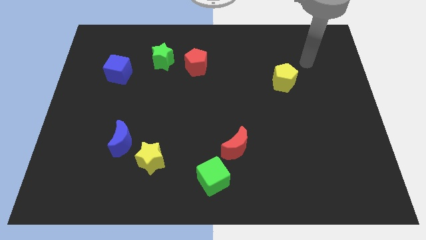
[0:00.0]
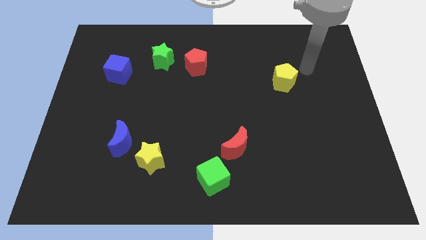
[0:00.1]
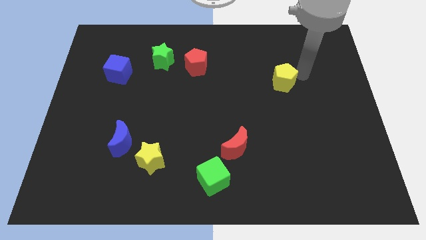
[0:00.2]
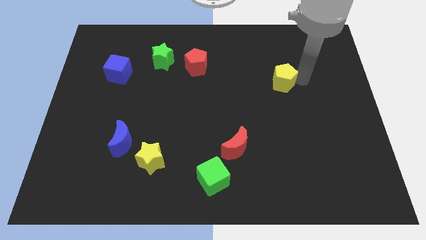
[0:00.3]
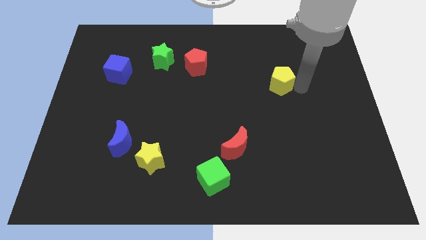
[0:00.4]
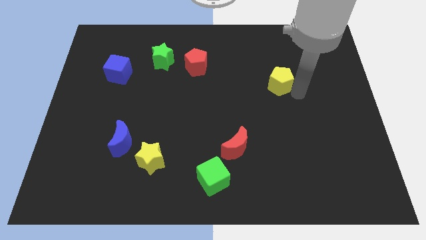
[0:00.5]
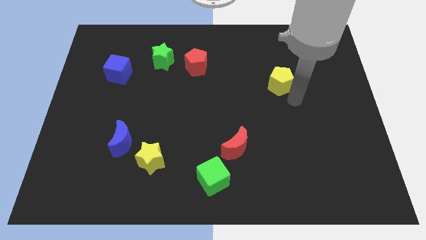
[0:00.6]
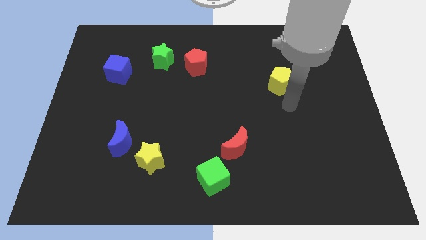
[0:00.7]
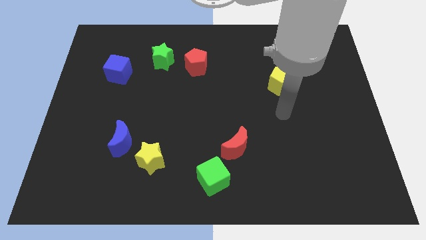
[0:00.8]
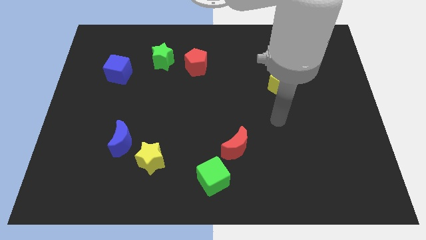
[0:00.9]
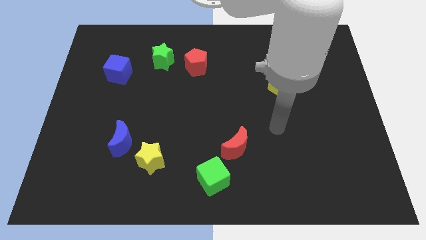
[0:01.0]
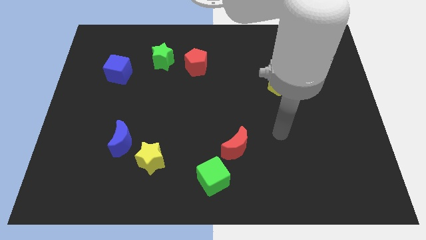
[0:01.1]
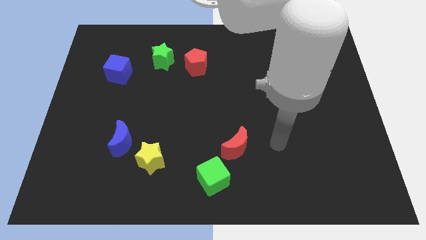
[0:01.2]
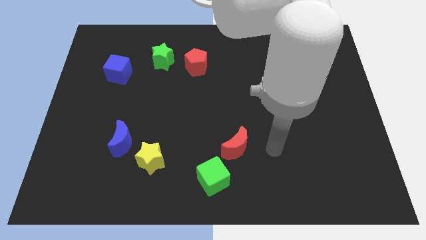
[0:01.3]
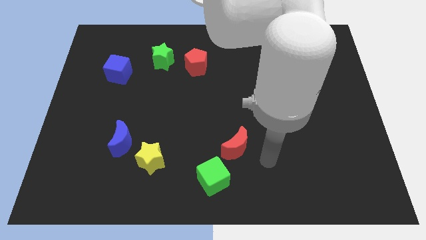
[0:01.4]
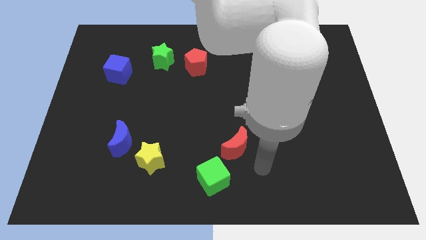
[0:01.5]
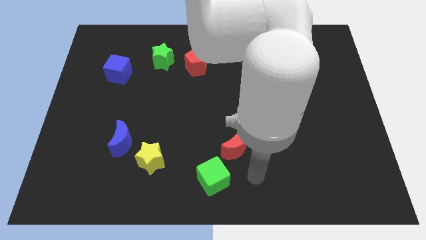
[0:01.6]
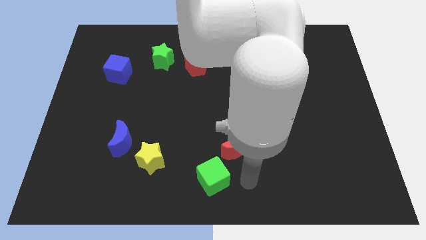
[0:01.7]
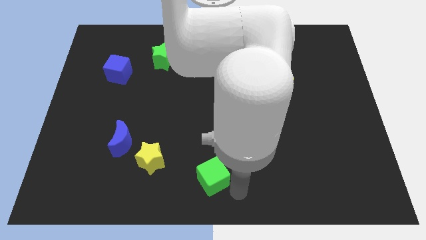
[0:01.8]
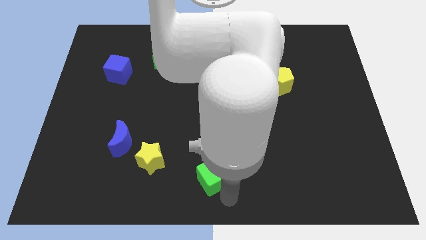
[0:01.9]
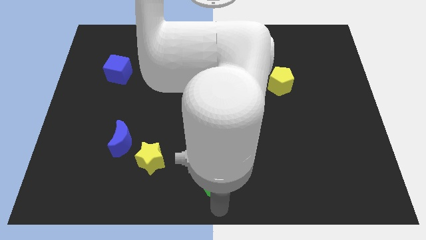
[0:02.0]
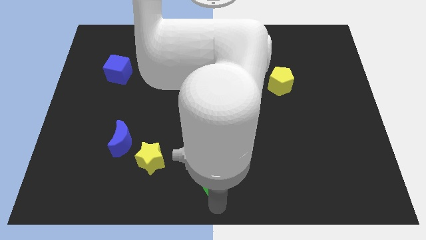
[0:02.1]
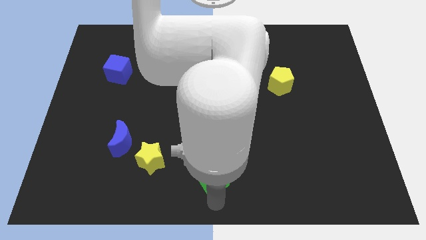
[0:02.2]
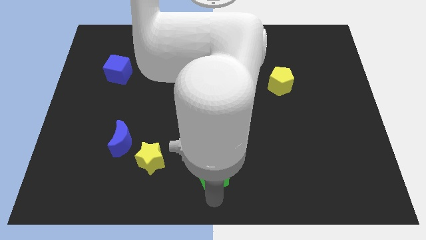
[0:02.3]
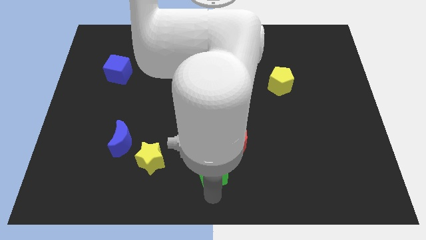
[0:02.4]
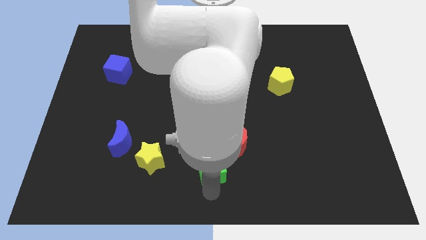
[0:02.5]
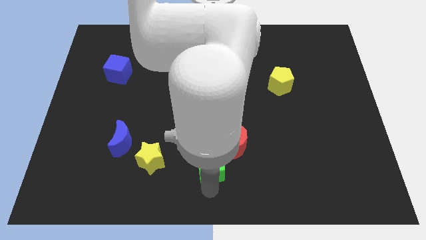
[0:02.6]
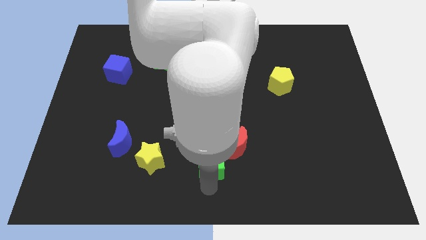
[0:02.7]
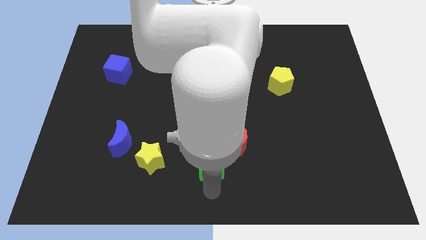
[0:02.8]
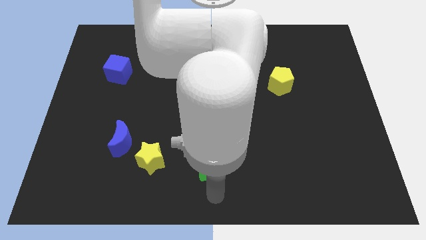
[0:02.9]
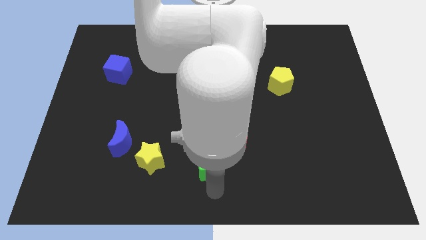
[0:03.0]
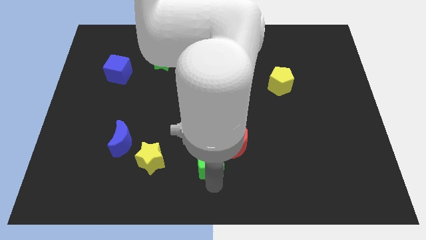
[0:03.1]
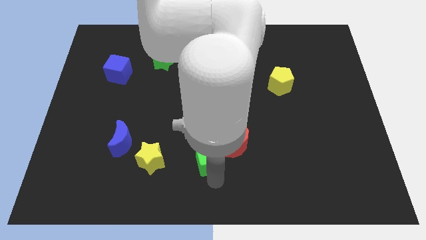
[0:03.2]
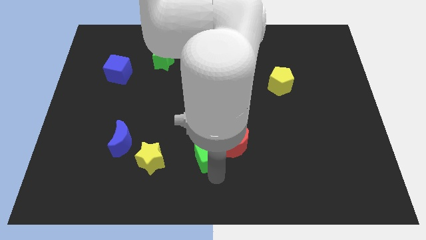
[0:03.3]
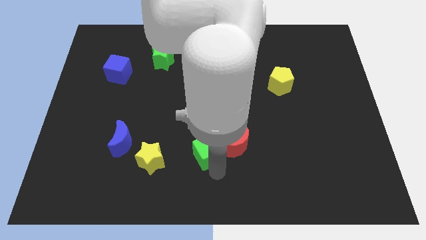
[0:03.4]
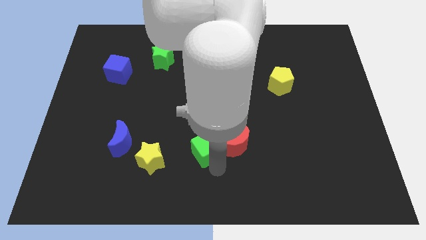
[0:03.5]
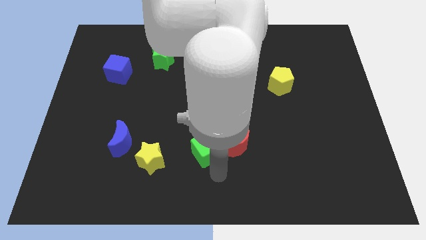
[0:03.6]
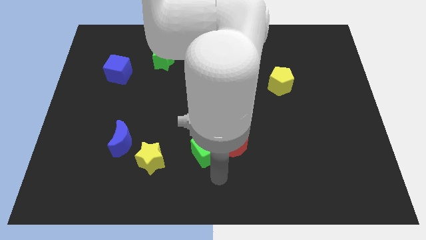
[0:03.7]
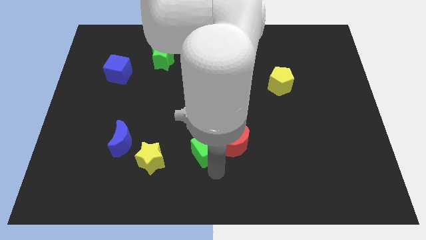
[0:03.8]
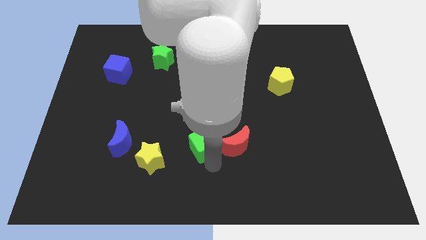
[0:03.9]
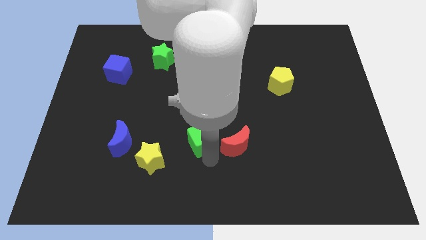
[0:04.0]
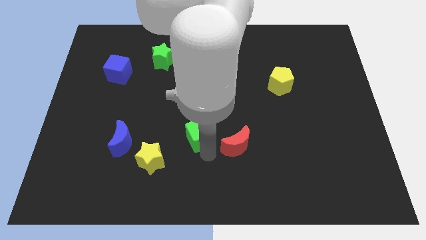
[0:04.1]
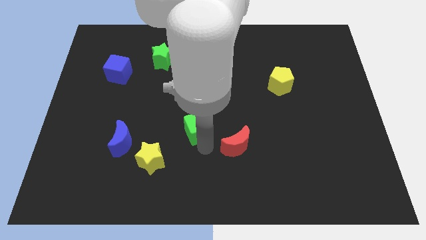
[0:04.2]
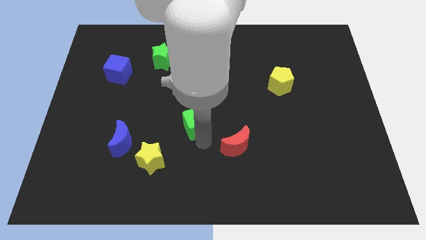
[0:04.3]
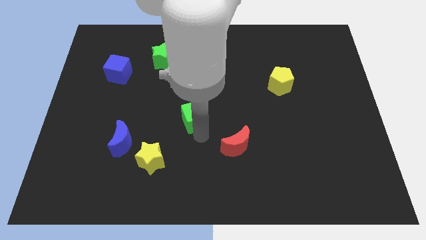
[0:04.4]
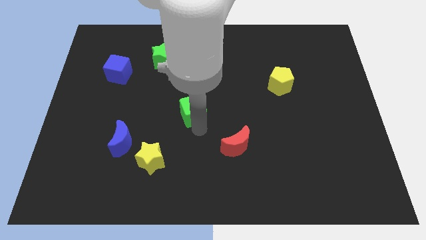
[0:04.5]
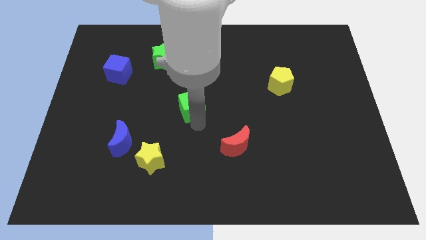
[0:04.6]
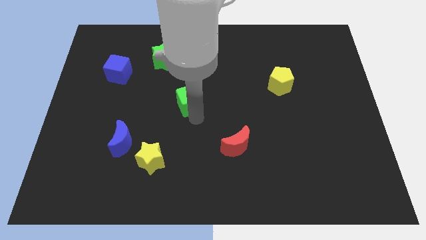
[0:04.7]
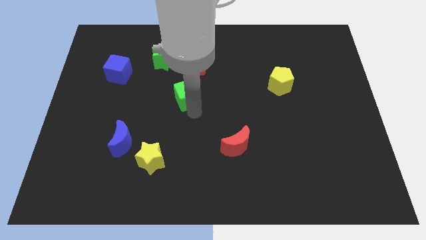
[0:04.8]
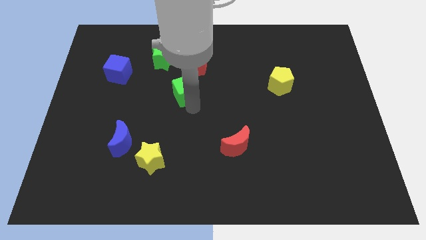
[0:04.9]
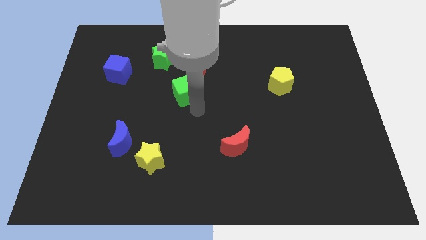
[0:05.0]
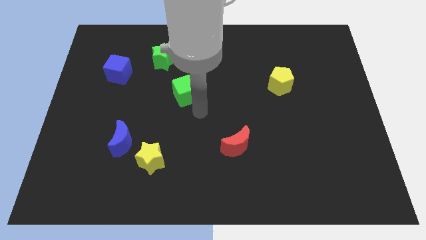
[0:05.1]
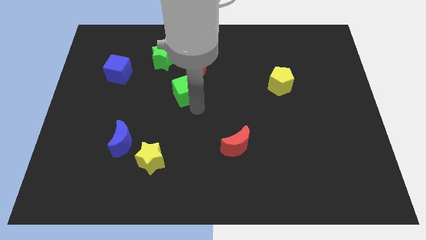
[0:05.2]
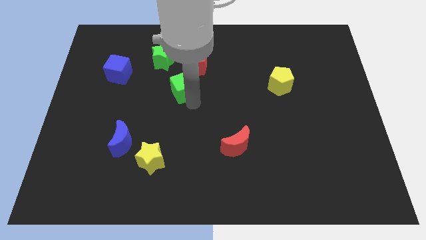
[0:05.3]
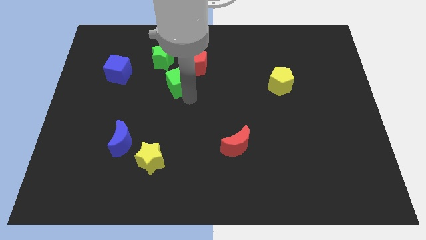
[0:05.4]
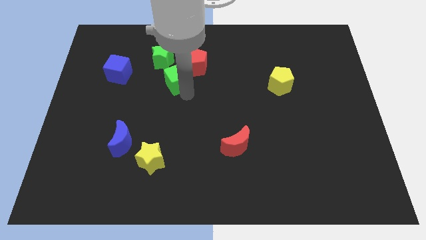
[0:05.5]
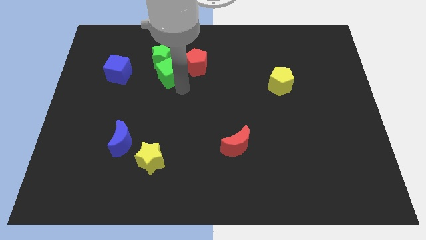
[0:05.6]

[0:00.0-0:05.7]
move the green cube to the green star

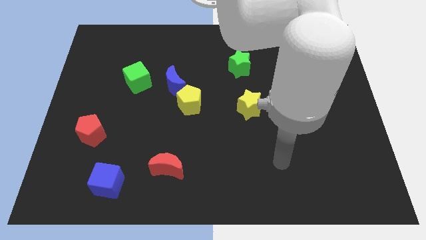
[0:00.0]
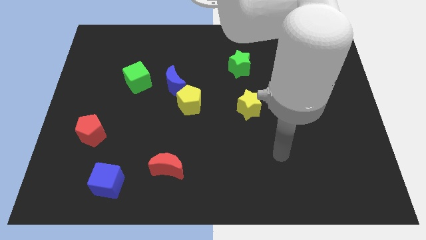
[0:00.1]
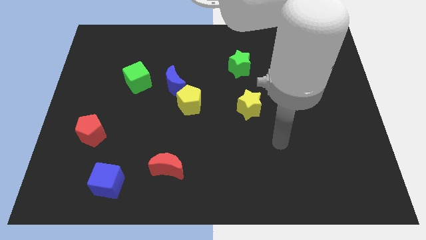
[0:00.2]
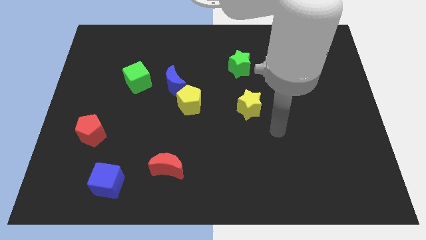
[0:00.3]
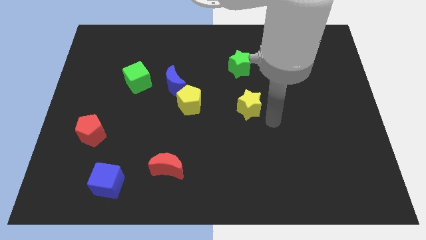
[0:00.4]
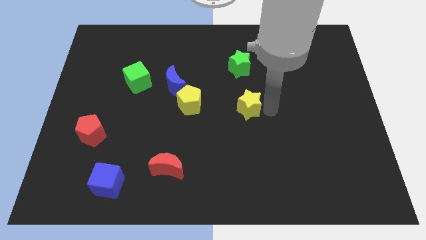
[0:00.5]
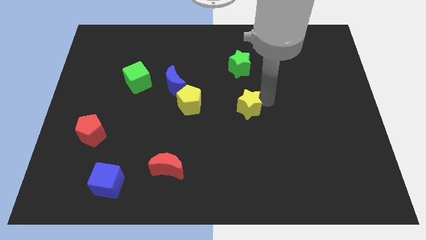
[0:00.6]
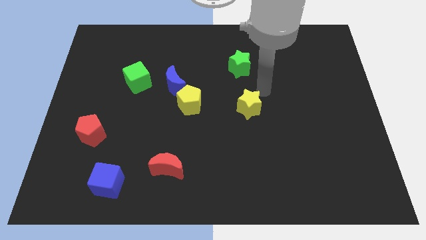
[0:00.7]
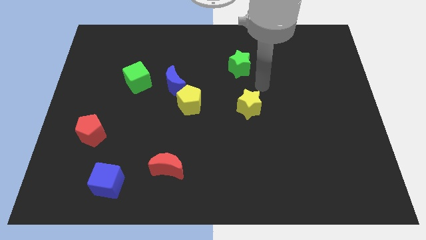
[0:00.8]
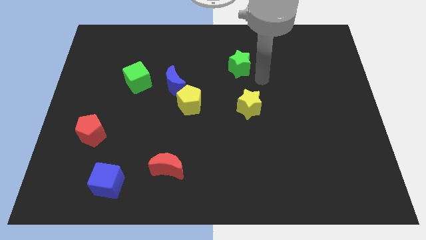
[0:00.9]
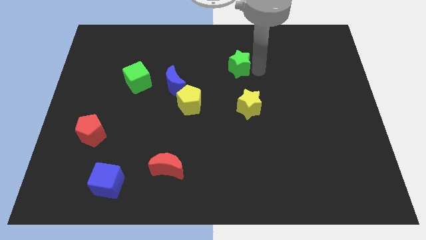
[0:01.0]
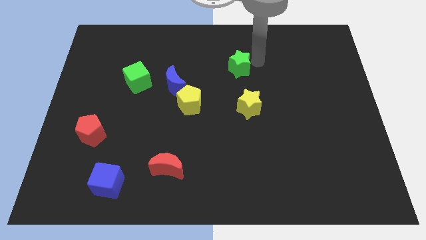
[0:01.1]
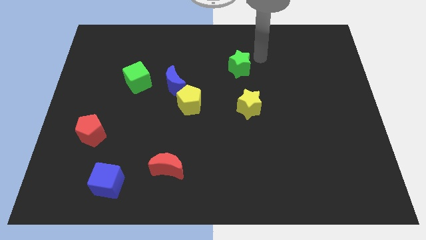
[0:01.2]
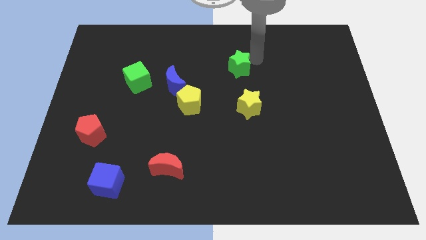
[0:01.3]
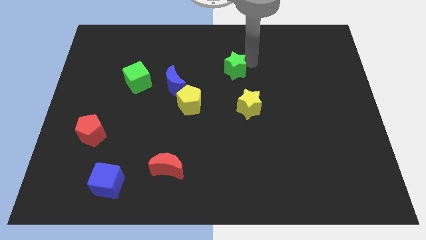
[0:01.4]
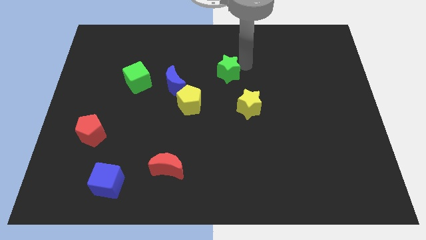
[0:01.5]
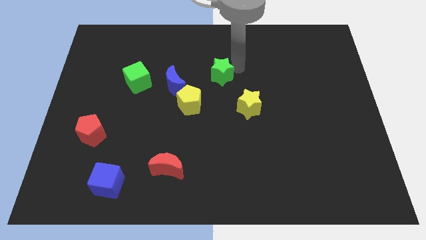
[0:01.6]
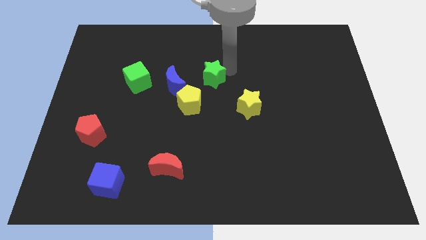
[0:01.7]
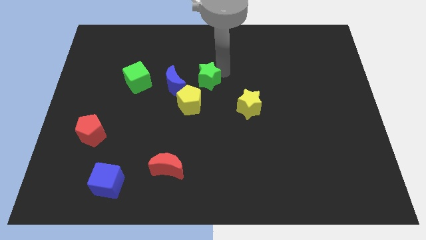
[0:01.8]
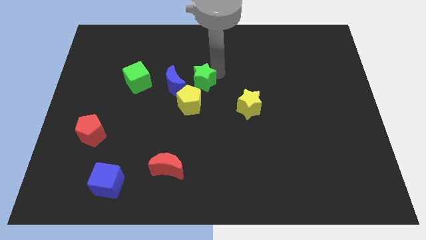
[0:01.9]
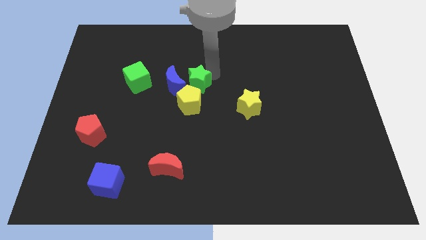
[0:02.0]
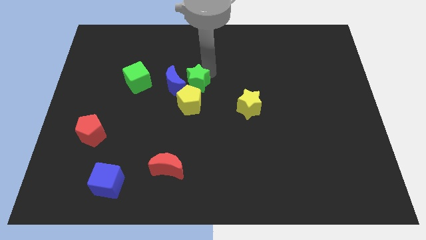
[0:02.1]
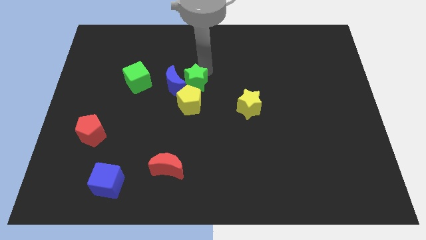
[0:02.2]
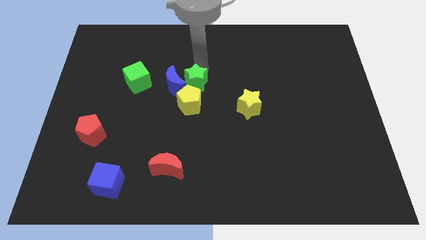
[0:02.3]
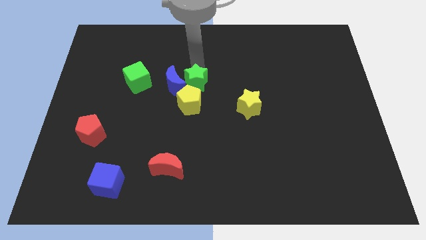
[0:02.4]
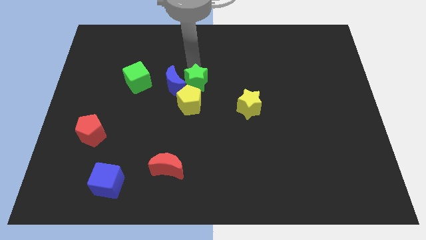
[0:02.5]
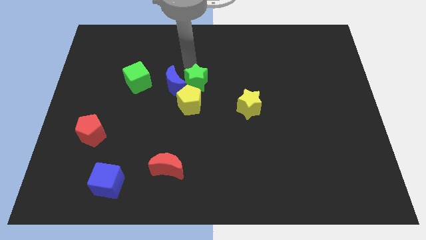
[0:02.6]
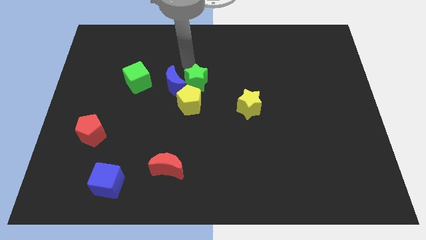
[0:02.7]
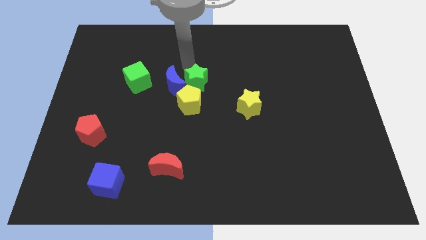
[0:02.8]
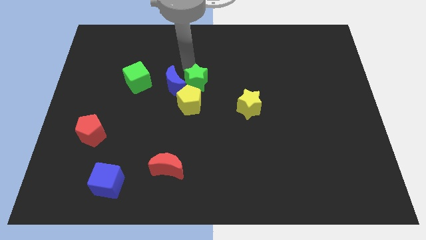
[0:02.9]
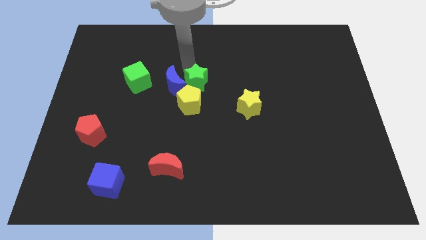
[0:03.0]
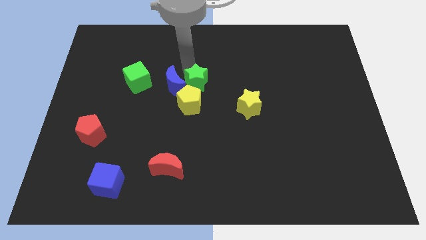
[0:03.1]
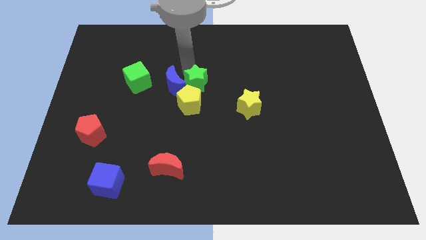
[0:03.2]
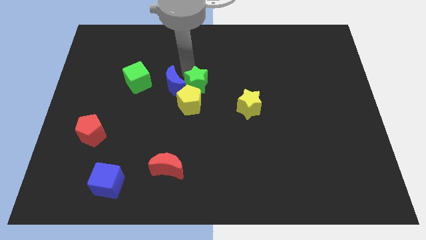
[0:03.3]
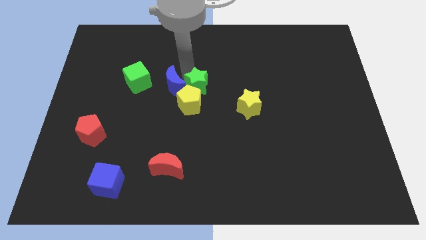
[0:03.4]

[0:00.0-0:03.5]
move the green star close to the yellow pentagon
